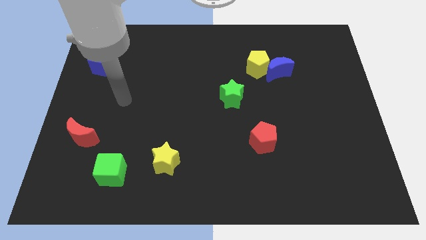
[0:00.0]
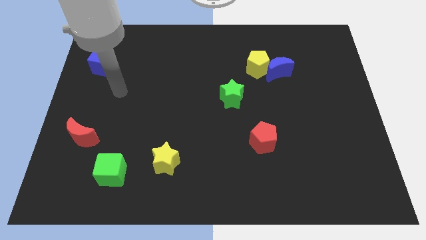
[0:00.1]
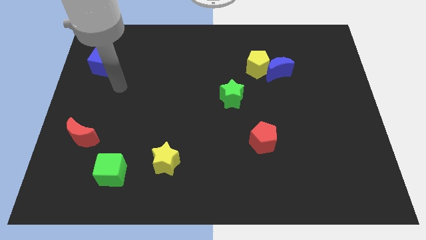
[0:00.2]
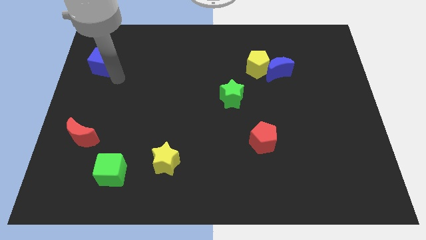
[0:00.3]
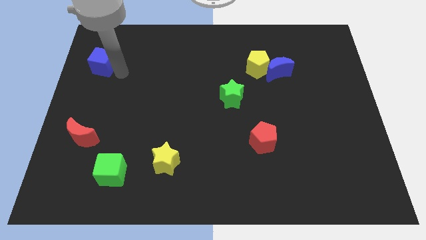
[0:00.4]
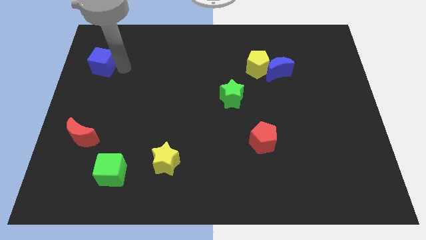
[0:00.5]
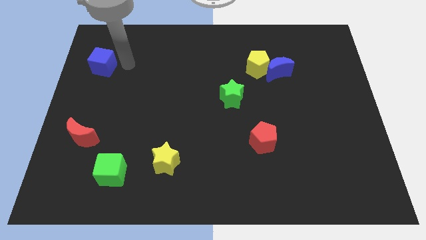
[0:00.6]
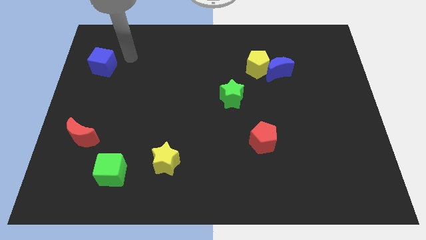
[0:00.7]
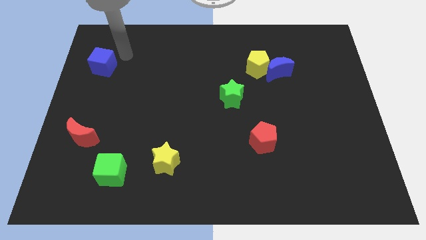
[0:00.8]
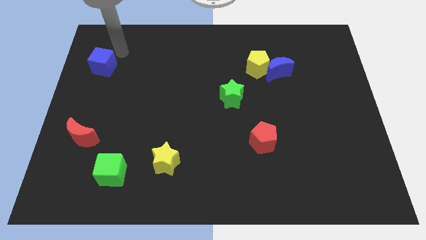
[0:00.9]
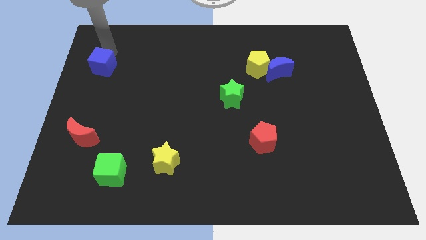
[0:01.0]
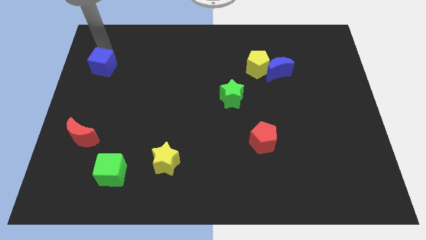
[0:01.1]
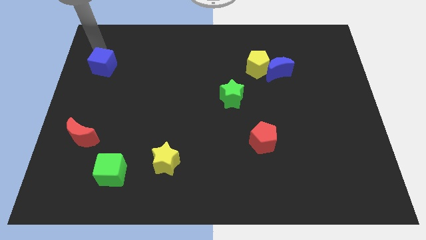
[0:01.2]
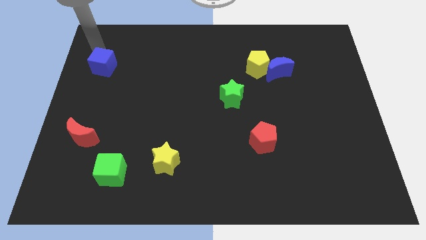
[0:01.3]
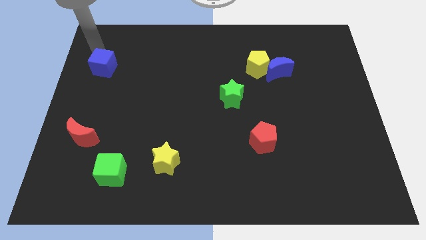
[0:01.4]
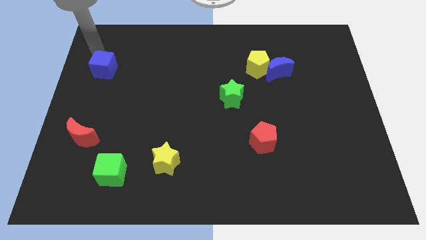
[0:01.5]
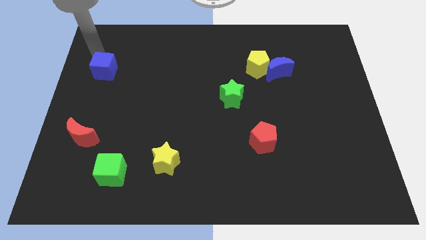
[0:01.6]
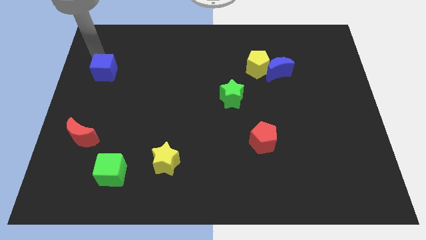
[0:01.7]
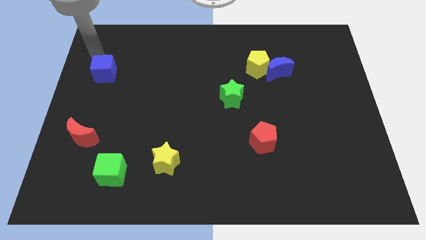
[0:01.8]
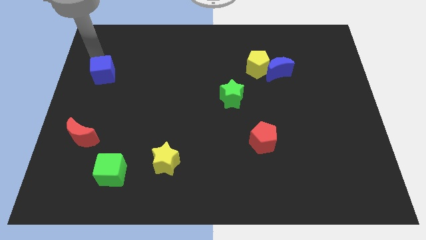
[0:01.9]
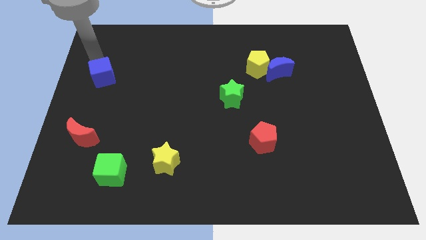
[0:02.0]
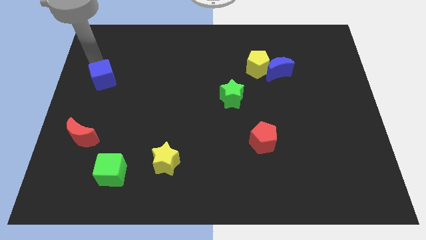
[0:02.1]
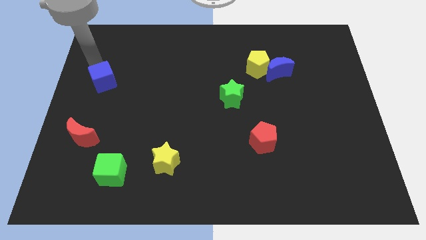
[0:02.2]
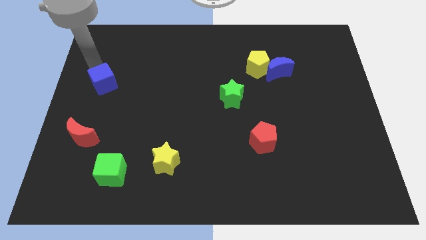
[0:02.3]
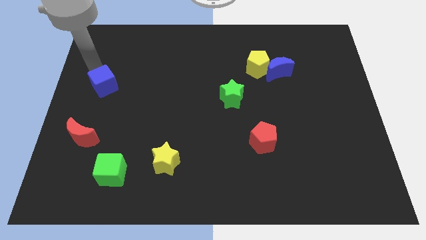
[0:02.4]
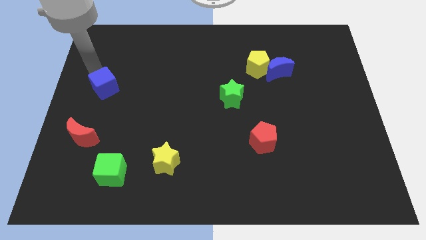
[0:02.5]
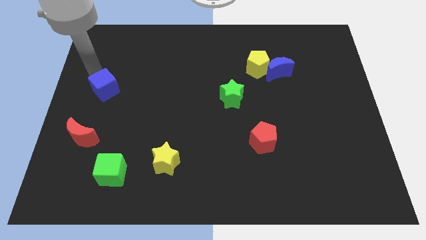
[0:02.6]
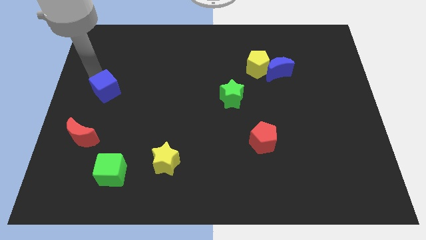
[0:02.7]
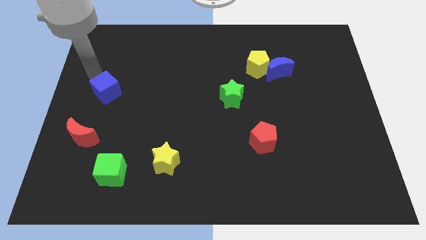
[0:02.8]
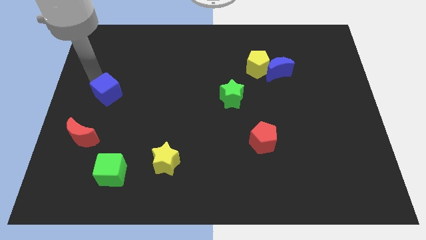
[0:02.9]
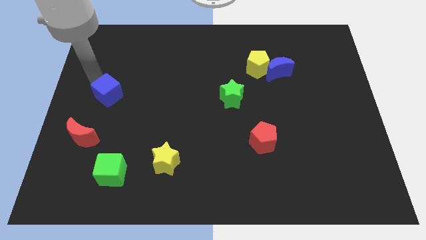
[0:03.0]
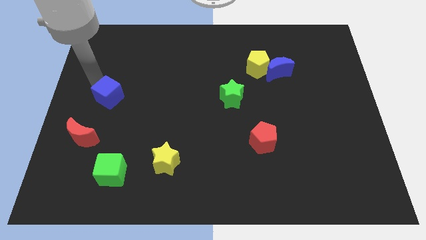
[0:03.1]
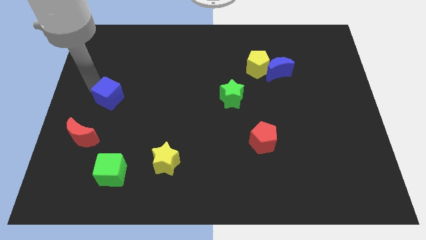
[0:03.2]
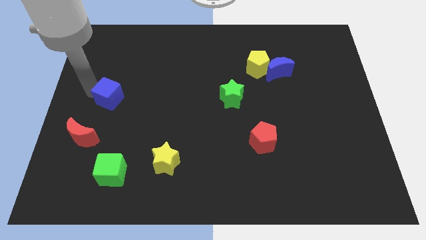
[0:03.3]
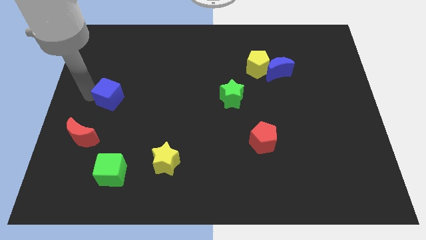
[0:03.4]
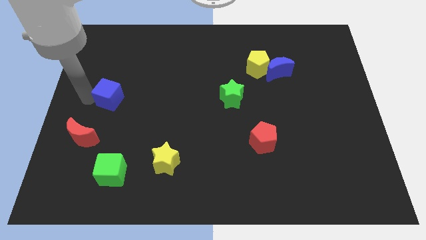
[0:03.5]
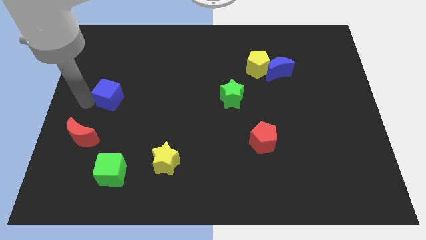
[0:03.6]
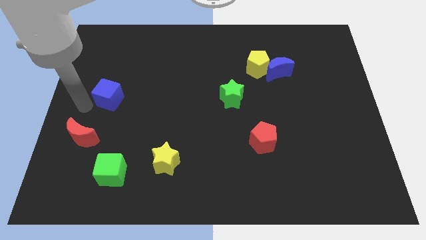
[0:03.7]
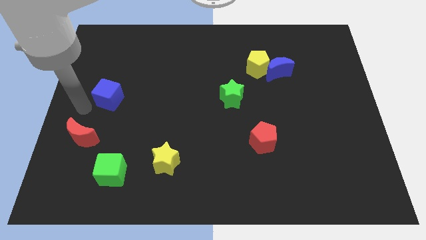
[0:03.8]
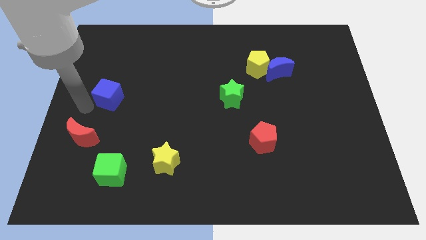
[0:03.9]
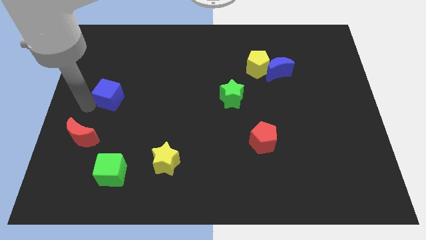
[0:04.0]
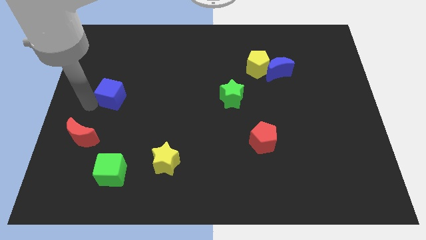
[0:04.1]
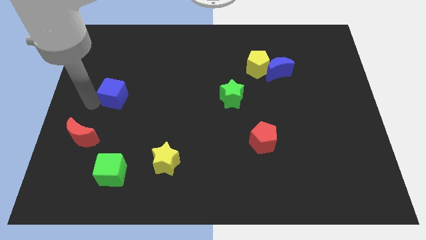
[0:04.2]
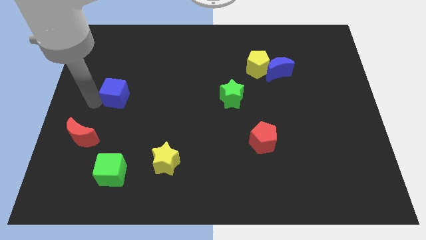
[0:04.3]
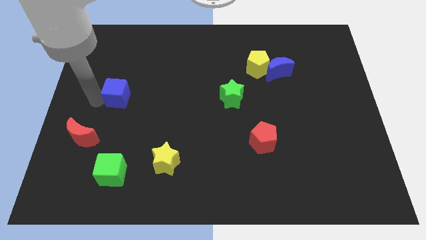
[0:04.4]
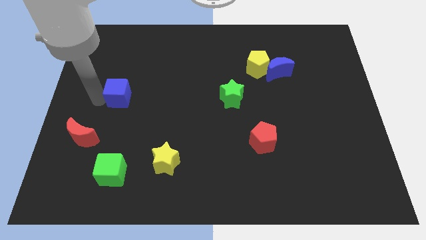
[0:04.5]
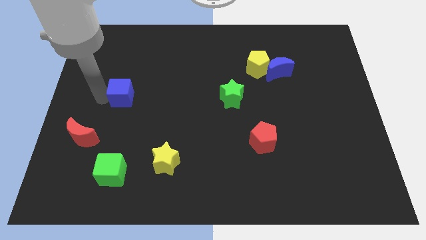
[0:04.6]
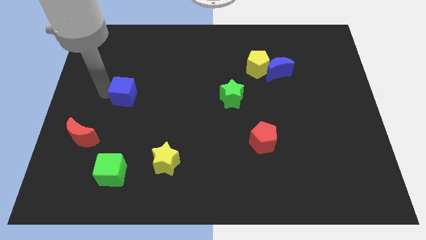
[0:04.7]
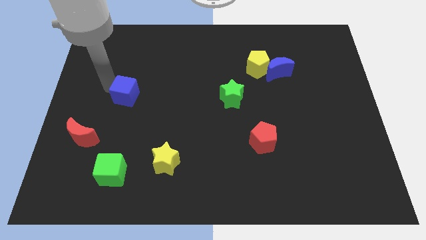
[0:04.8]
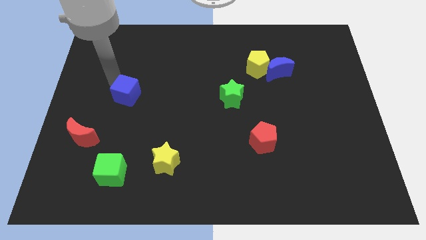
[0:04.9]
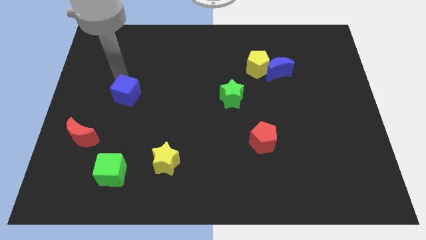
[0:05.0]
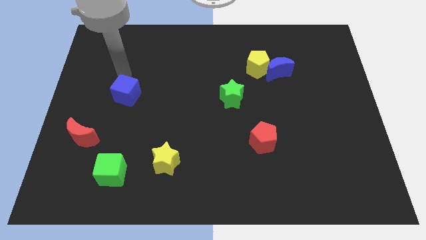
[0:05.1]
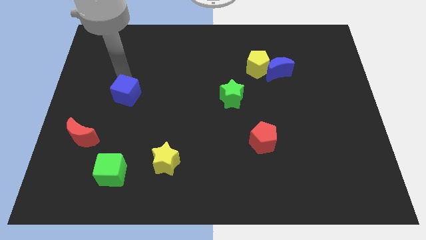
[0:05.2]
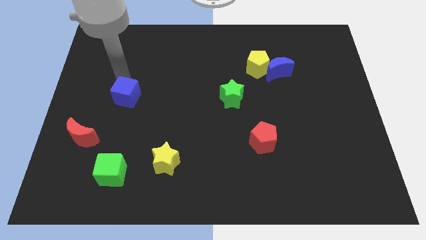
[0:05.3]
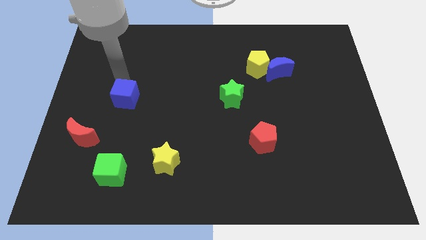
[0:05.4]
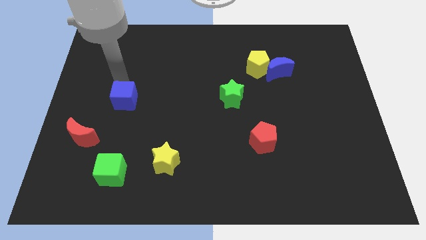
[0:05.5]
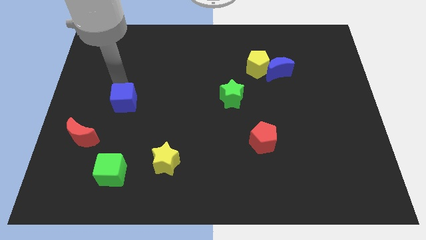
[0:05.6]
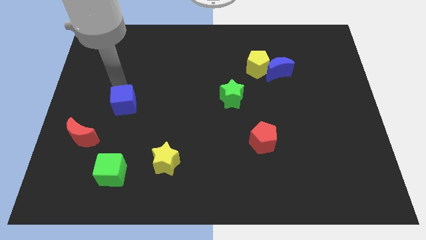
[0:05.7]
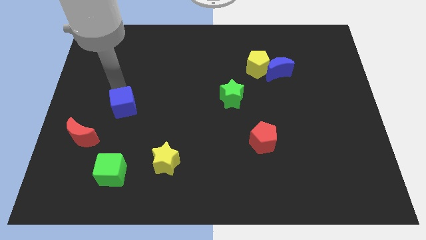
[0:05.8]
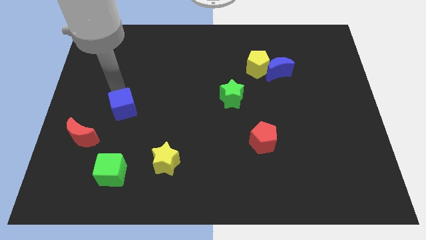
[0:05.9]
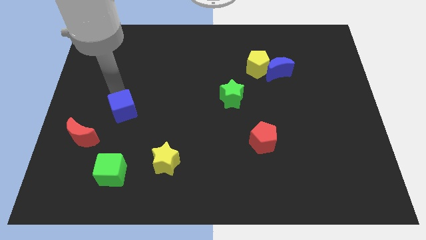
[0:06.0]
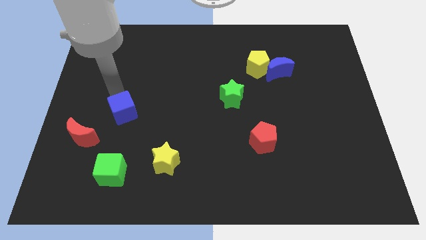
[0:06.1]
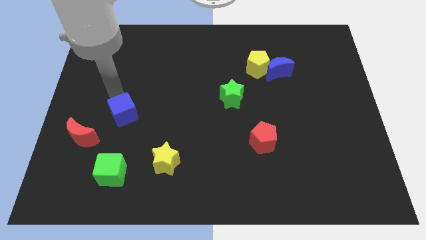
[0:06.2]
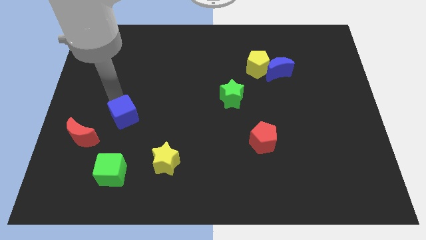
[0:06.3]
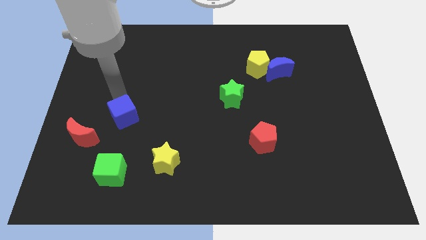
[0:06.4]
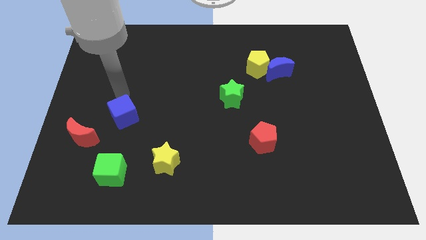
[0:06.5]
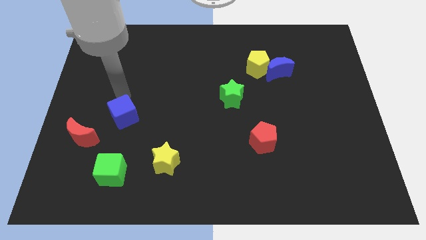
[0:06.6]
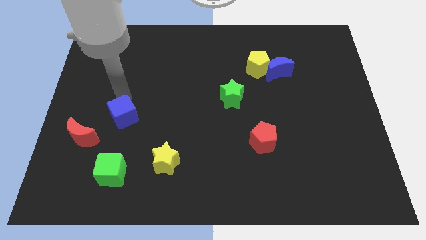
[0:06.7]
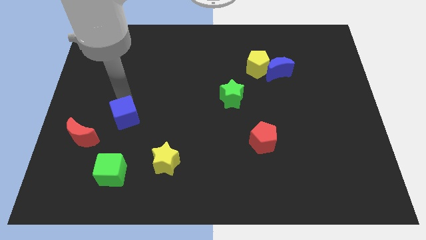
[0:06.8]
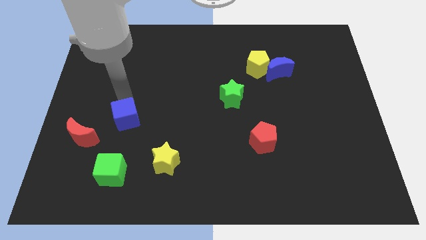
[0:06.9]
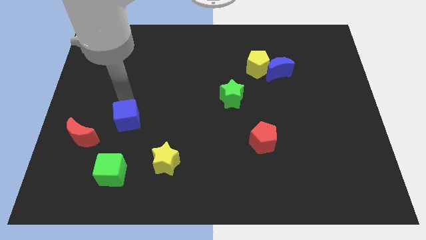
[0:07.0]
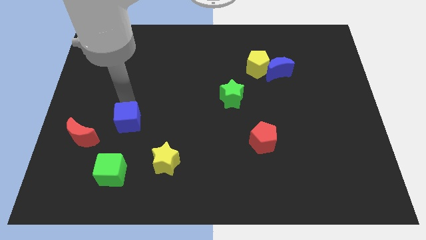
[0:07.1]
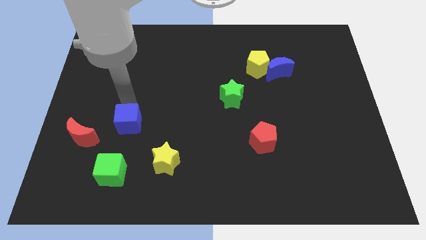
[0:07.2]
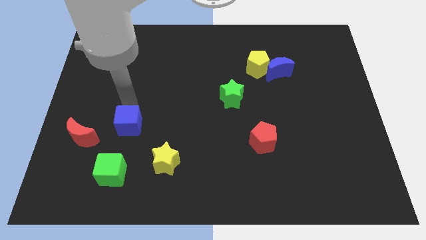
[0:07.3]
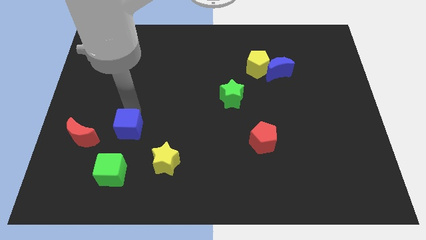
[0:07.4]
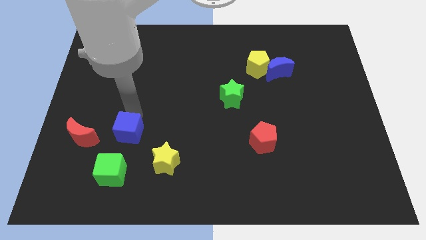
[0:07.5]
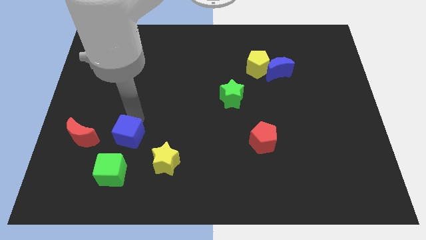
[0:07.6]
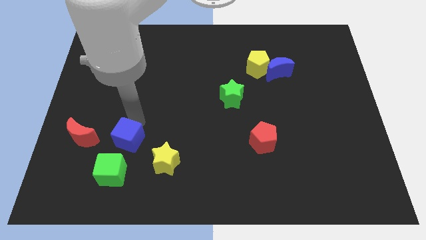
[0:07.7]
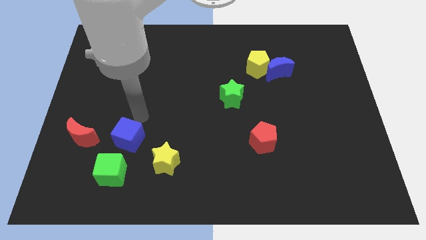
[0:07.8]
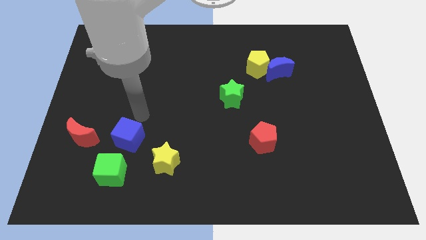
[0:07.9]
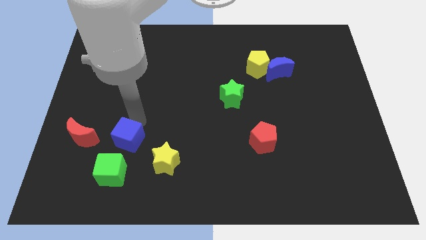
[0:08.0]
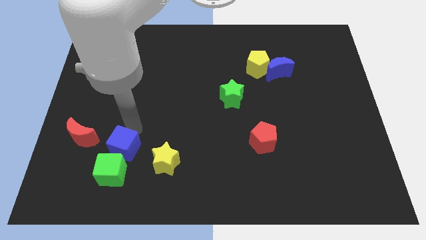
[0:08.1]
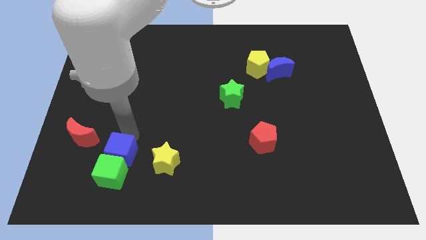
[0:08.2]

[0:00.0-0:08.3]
slide the blue cube to the green cube
